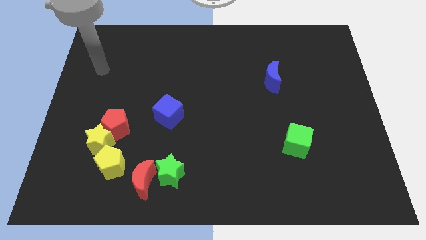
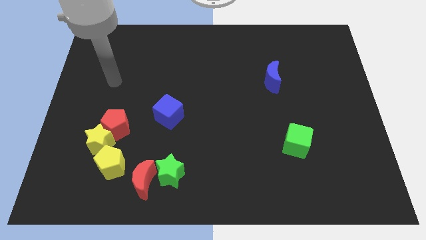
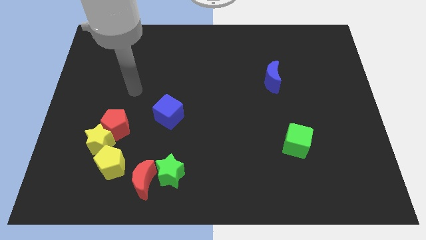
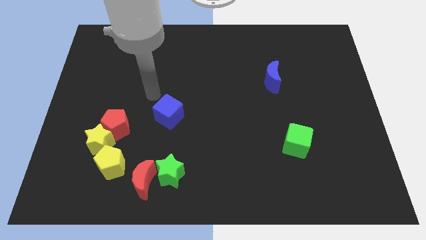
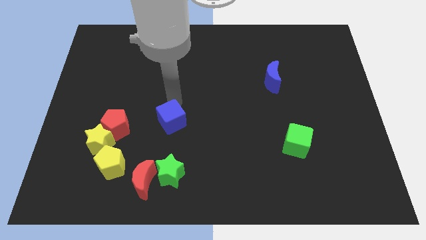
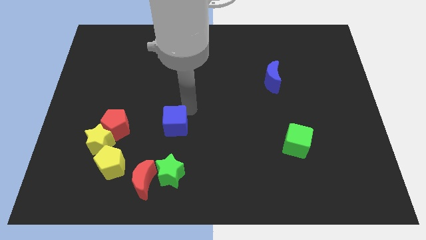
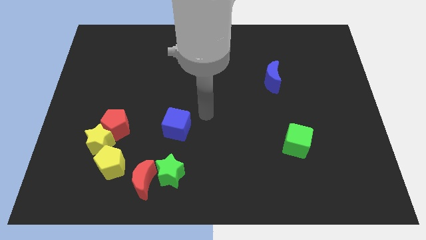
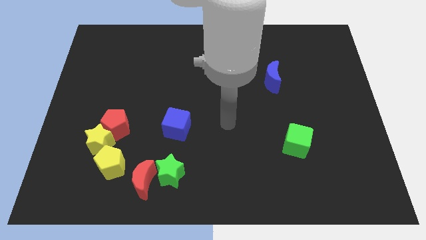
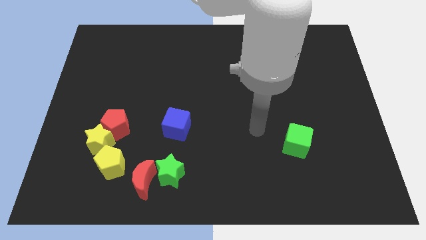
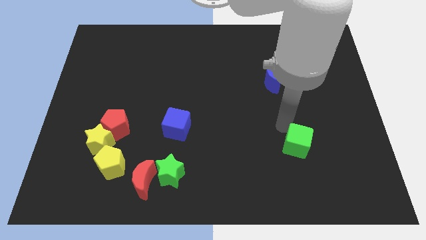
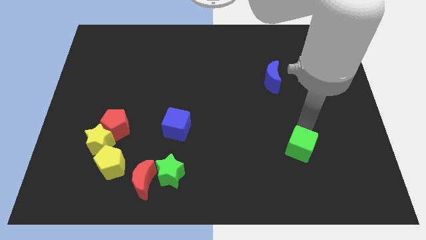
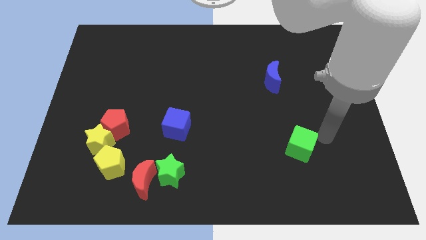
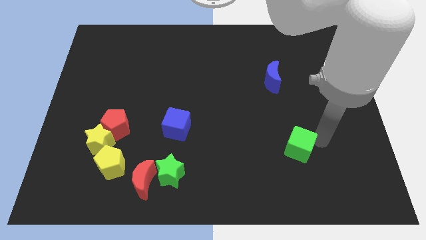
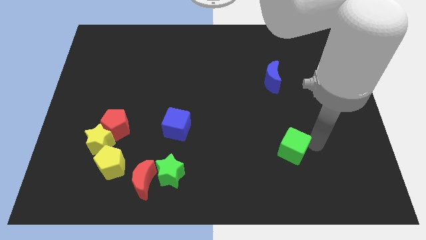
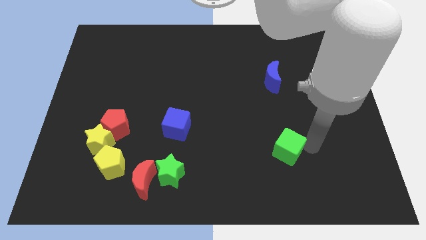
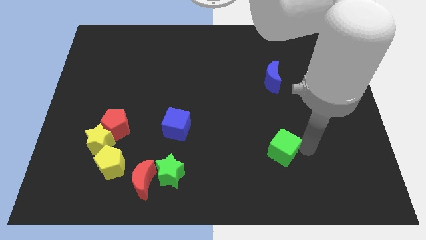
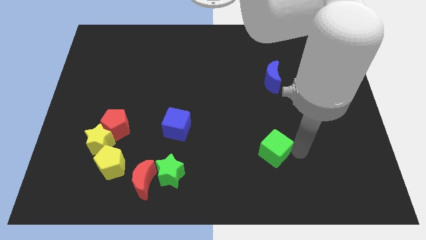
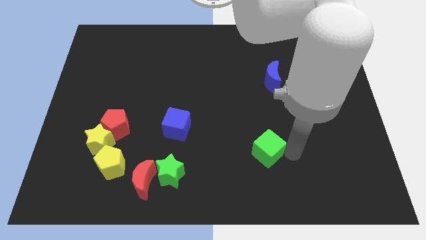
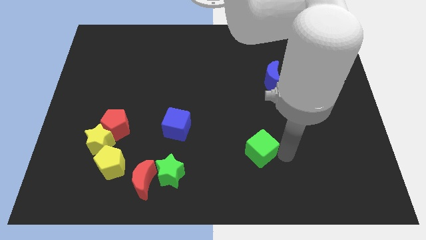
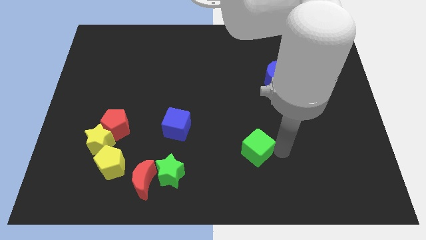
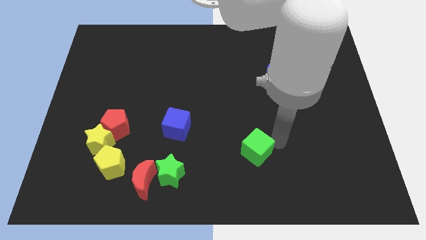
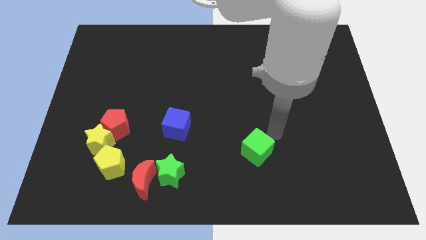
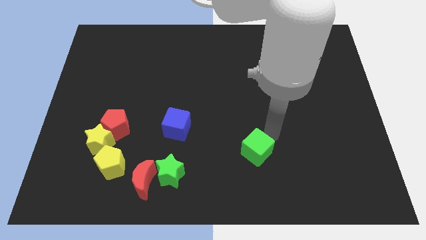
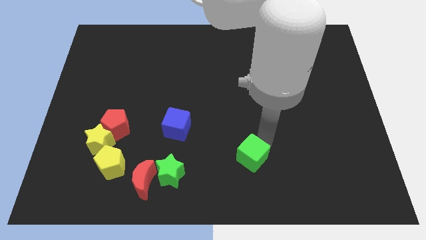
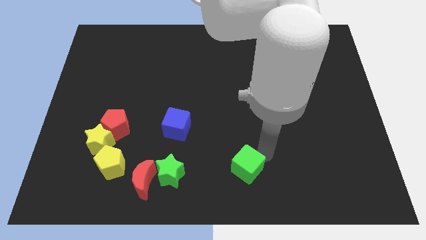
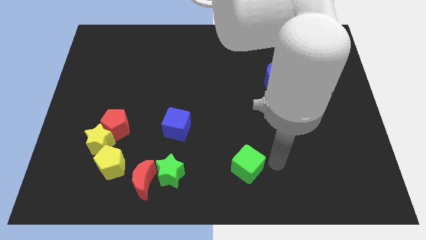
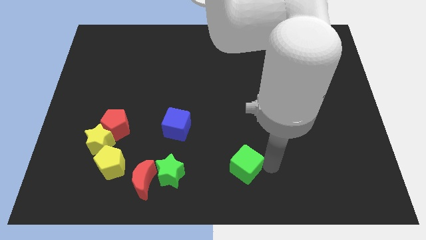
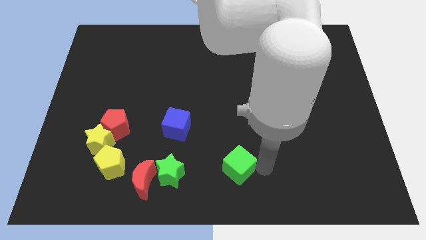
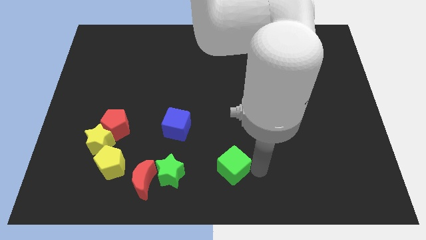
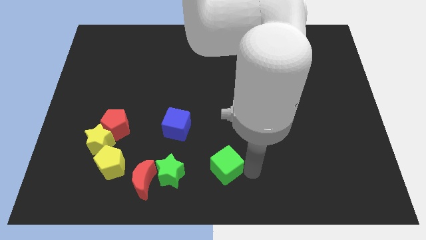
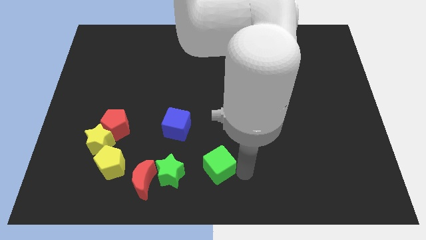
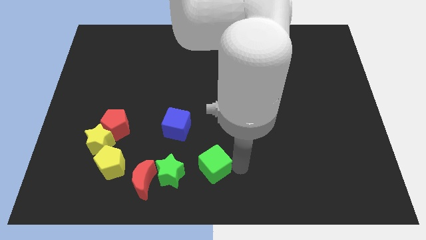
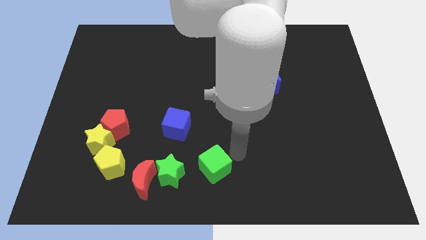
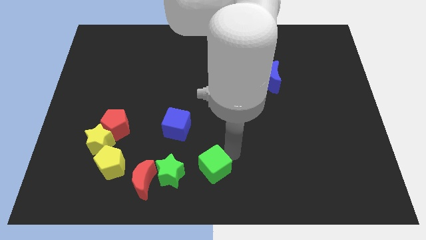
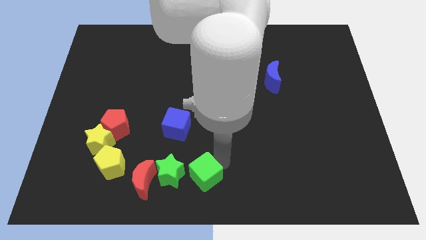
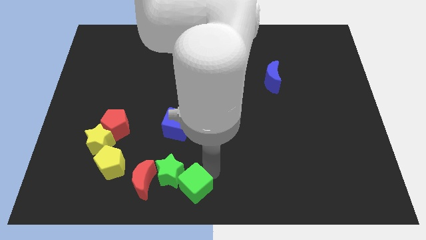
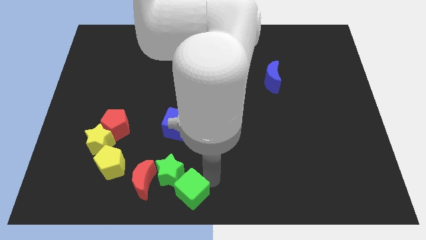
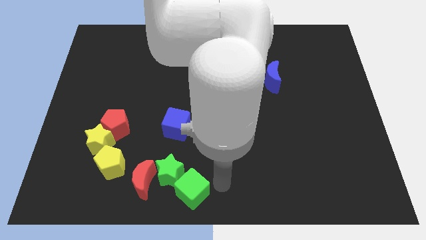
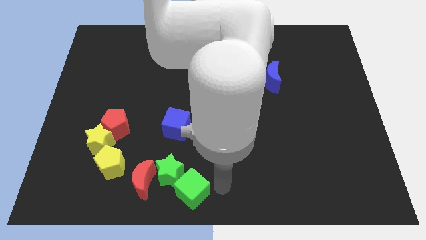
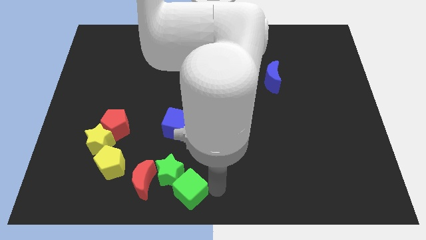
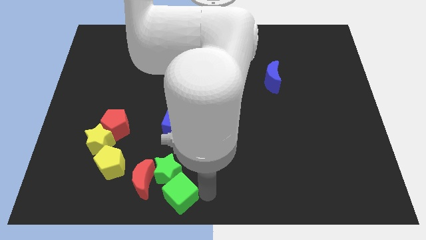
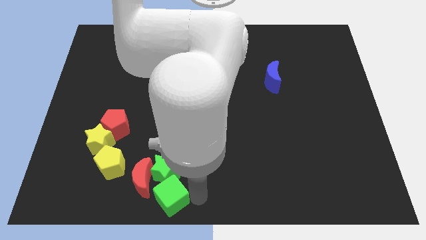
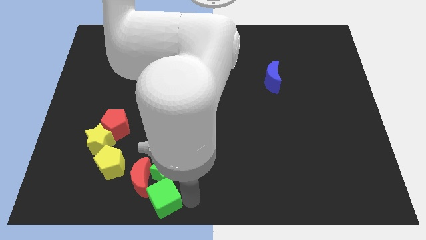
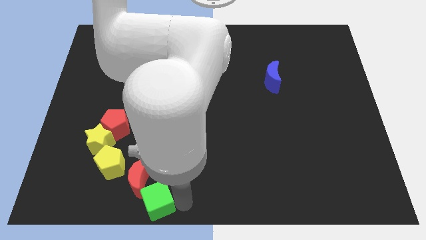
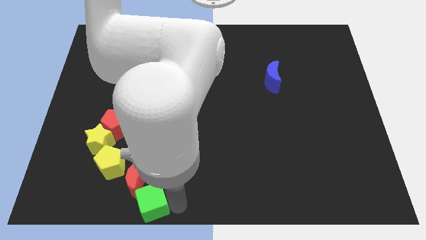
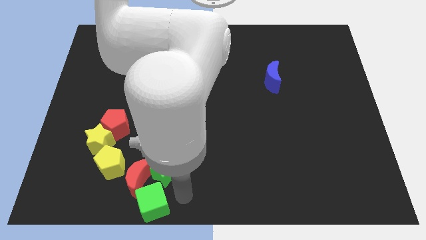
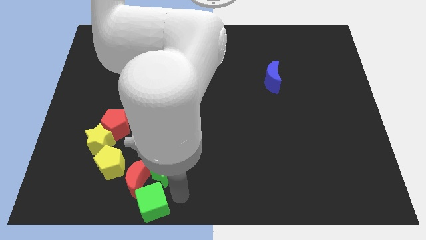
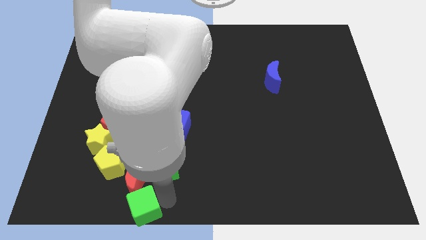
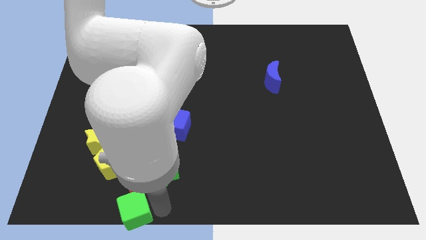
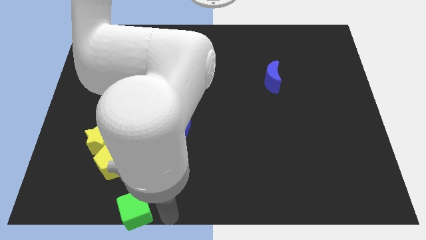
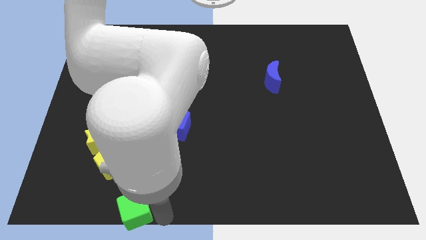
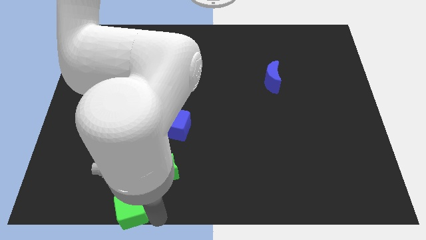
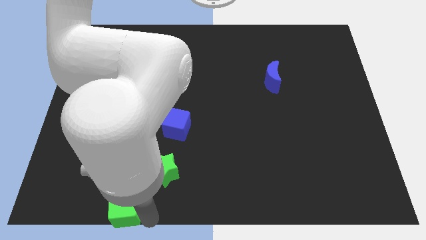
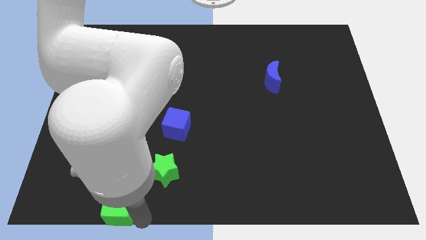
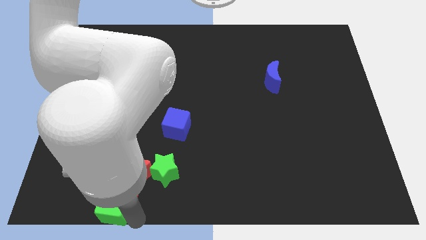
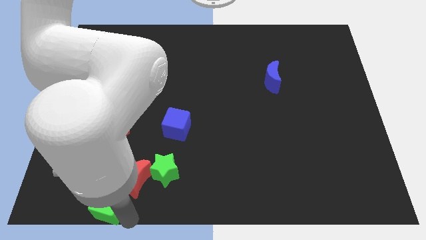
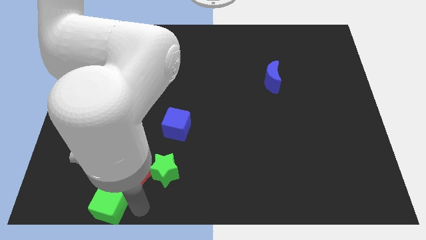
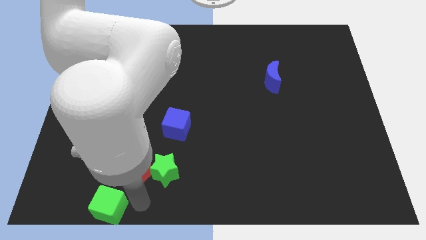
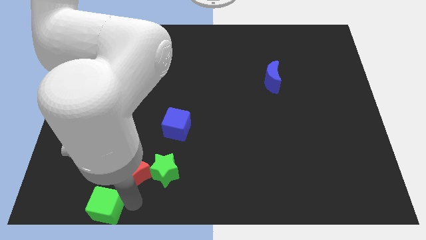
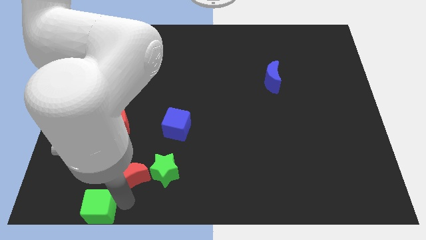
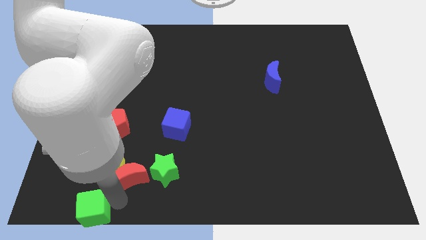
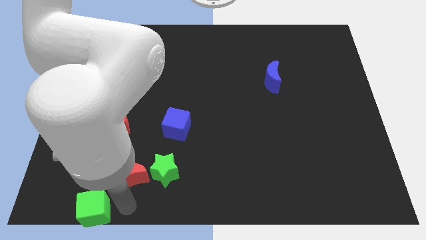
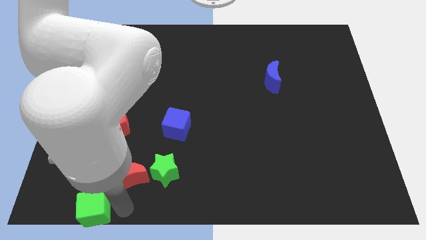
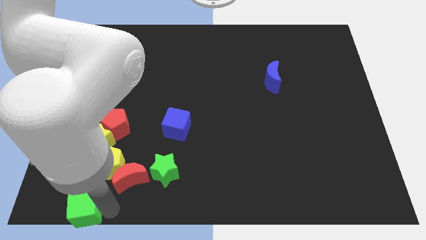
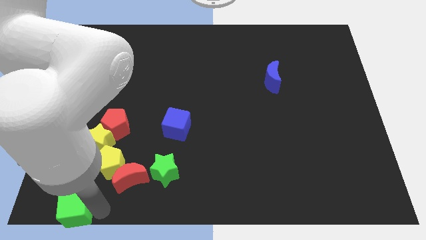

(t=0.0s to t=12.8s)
push the green cube to the bottom left
